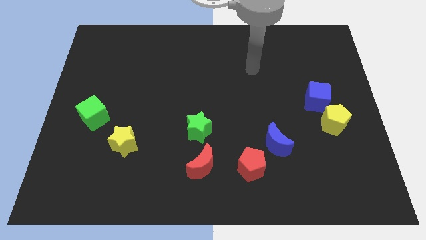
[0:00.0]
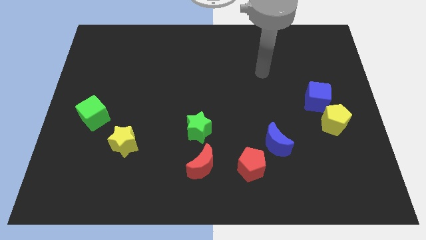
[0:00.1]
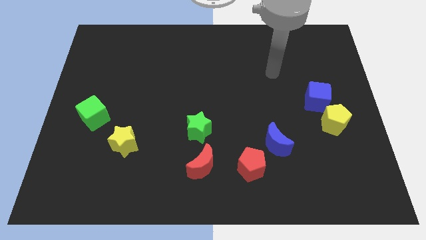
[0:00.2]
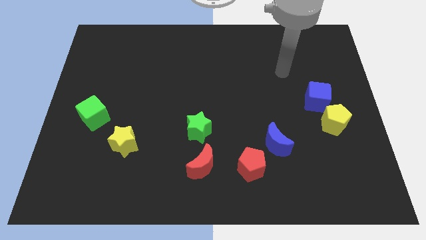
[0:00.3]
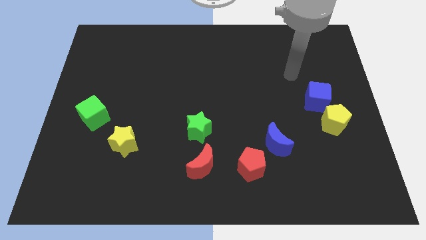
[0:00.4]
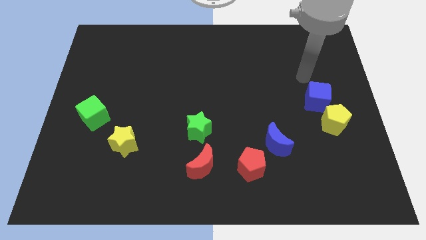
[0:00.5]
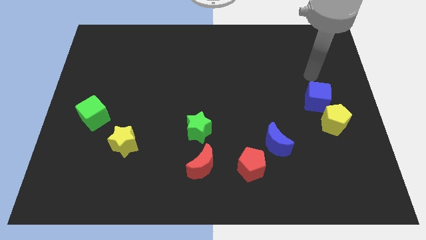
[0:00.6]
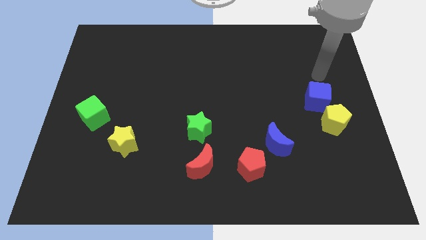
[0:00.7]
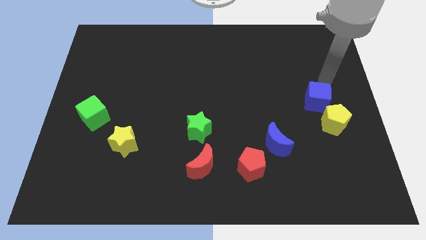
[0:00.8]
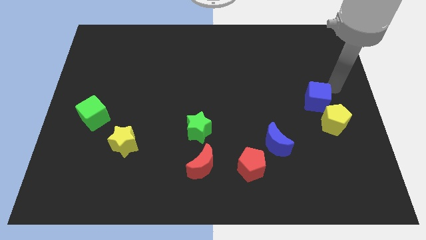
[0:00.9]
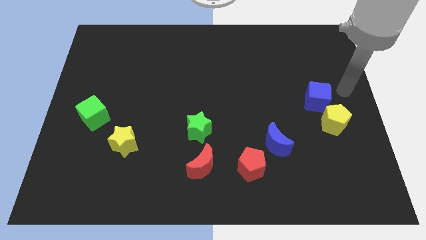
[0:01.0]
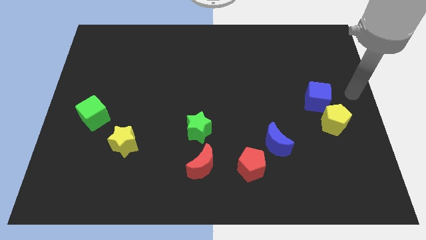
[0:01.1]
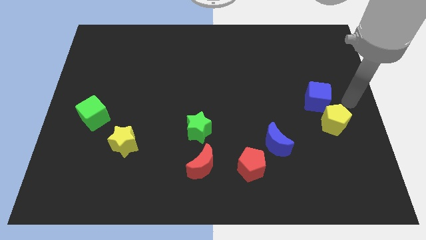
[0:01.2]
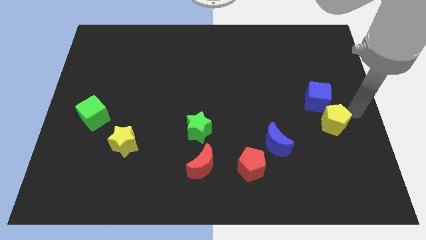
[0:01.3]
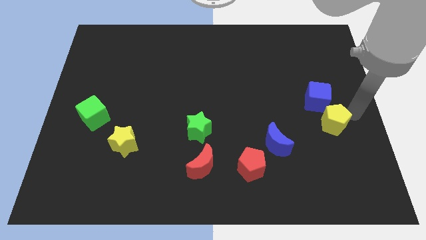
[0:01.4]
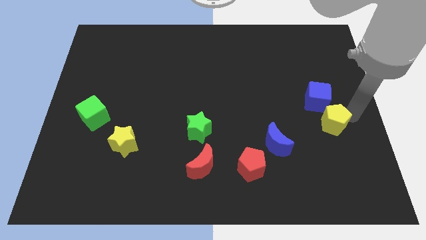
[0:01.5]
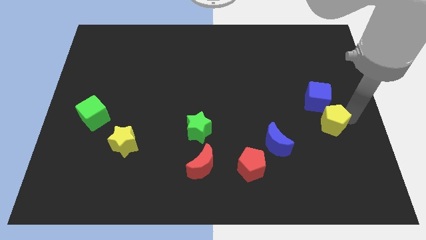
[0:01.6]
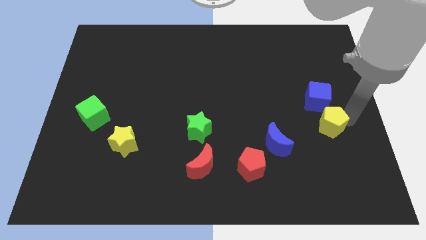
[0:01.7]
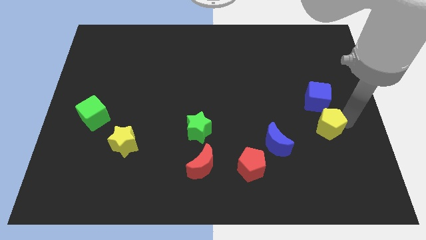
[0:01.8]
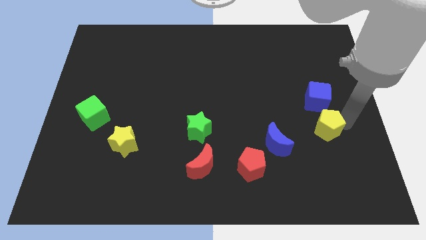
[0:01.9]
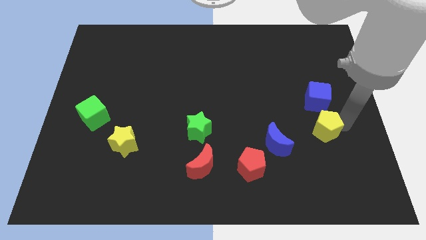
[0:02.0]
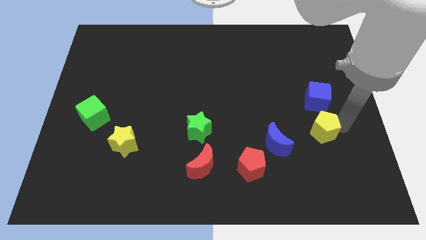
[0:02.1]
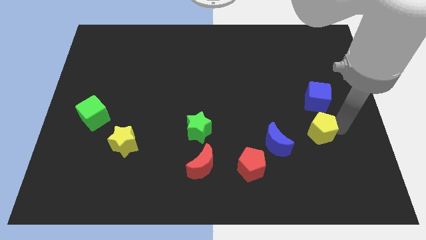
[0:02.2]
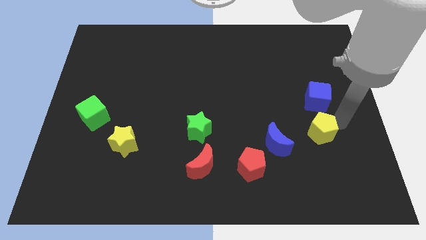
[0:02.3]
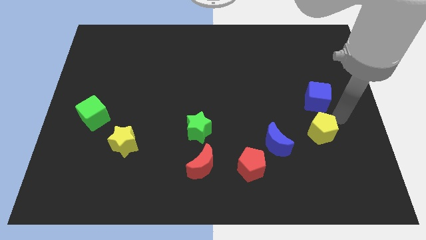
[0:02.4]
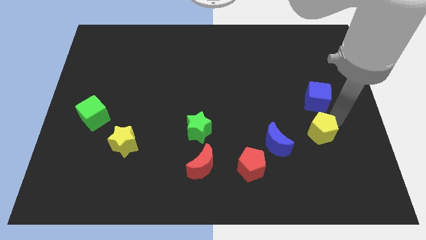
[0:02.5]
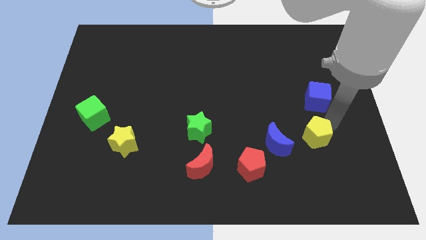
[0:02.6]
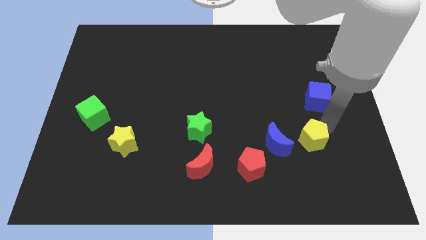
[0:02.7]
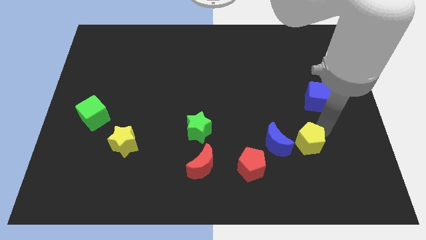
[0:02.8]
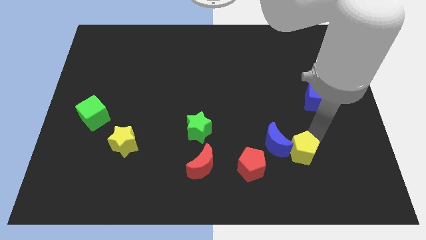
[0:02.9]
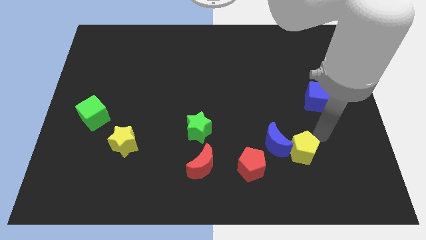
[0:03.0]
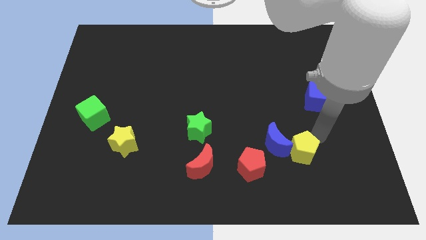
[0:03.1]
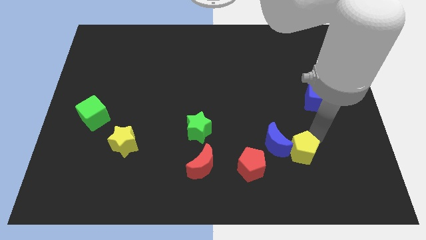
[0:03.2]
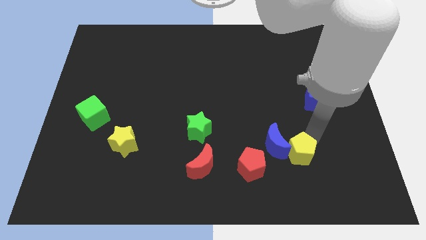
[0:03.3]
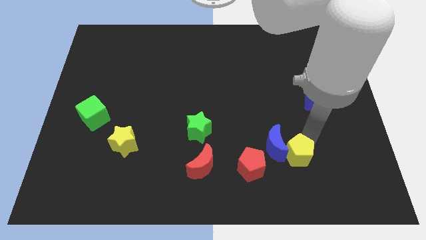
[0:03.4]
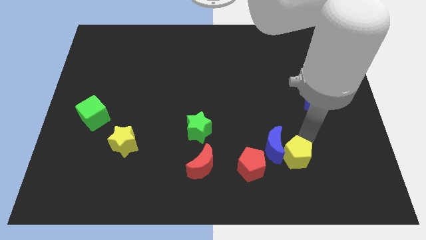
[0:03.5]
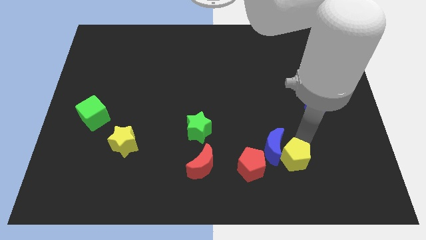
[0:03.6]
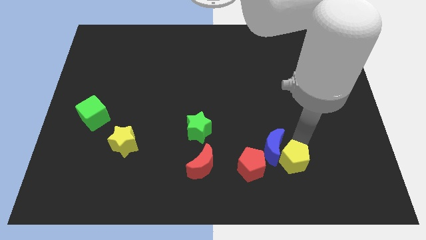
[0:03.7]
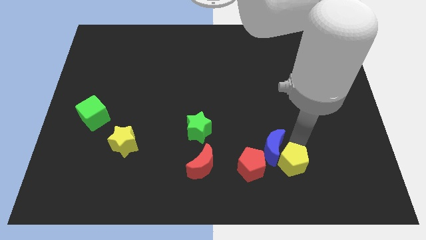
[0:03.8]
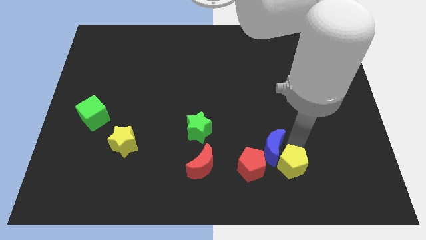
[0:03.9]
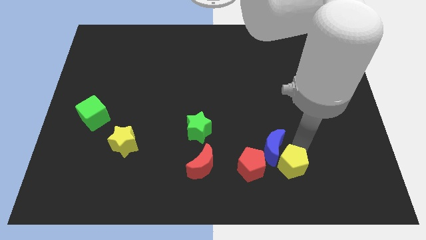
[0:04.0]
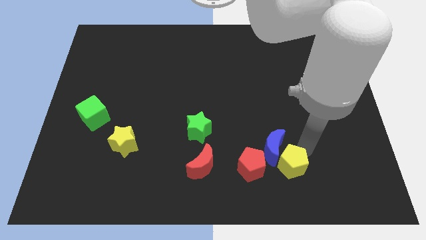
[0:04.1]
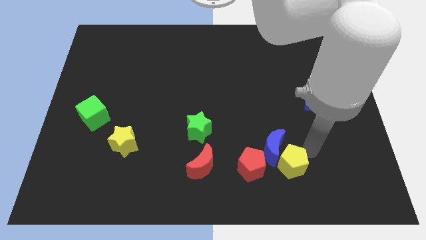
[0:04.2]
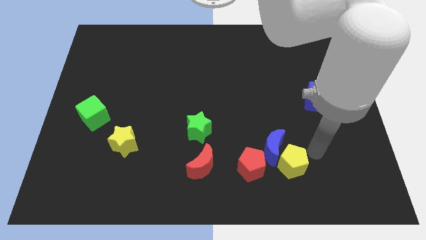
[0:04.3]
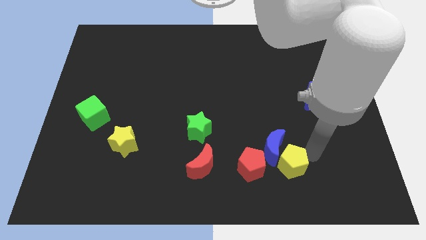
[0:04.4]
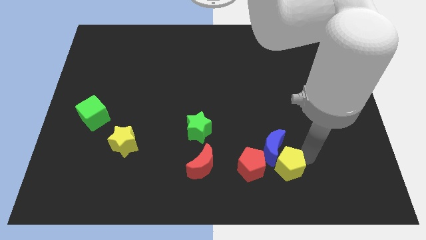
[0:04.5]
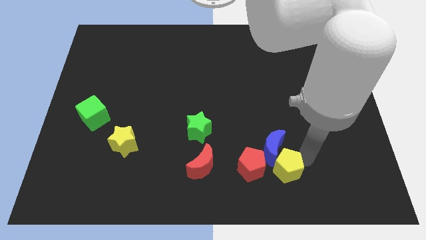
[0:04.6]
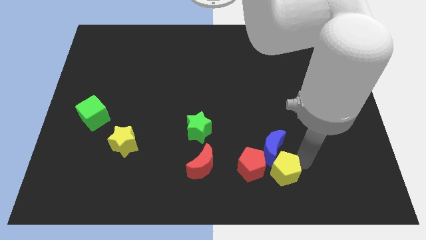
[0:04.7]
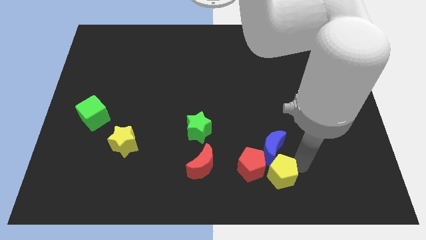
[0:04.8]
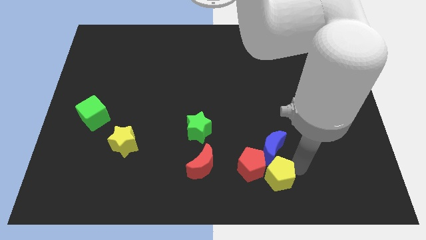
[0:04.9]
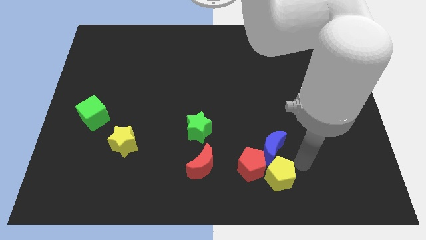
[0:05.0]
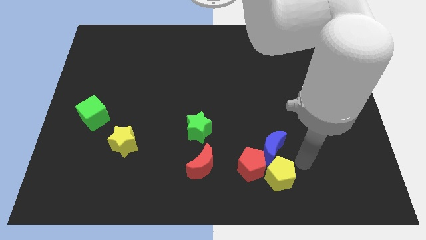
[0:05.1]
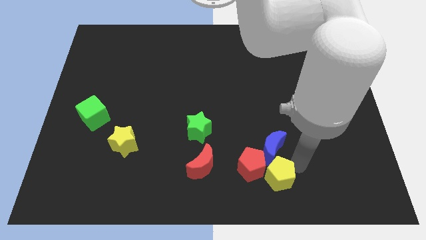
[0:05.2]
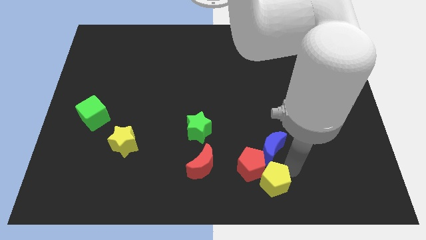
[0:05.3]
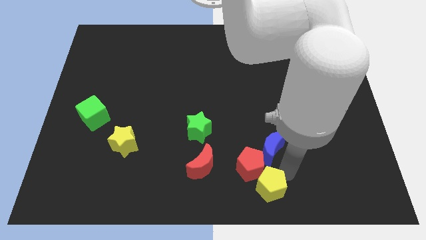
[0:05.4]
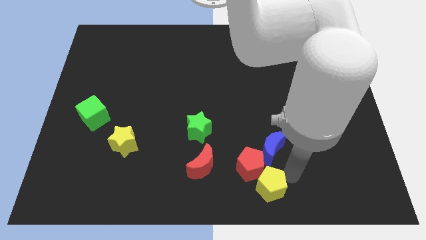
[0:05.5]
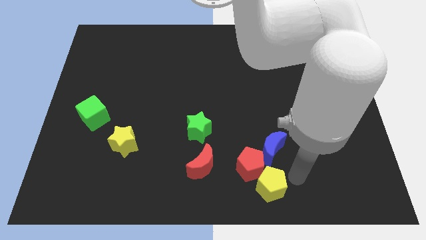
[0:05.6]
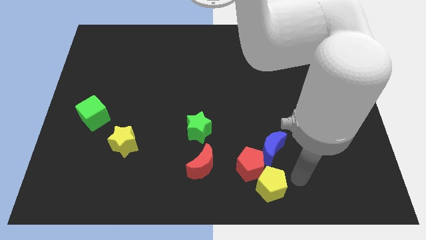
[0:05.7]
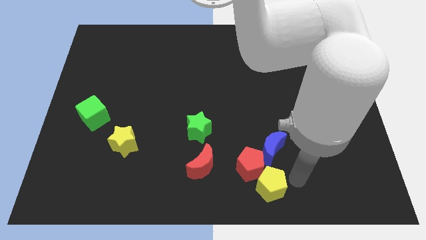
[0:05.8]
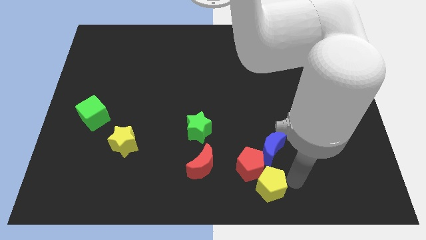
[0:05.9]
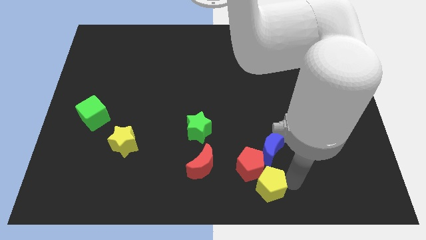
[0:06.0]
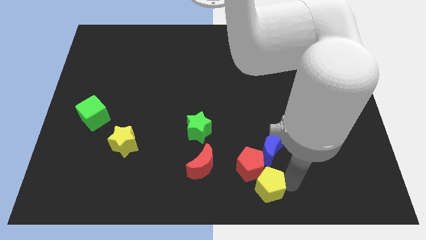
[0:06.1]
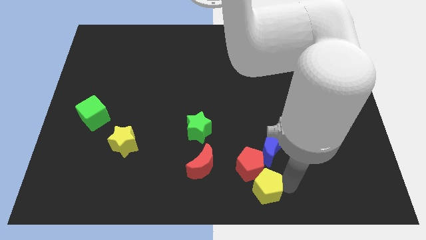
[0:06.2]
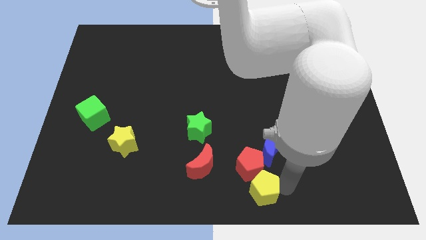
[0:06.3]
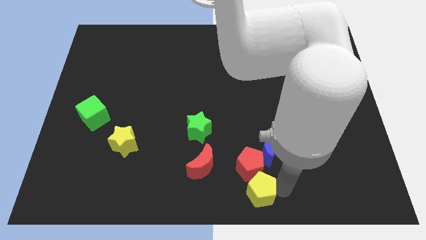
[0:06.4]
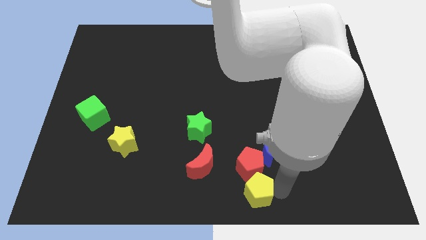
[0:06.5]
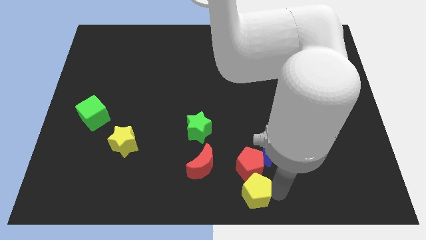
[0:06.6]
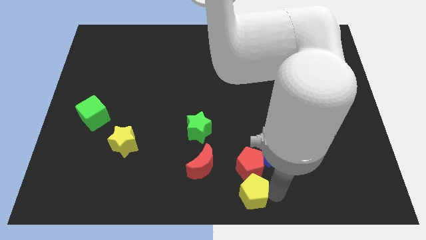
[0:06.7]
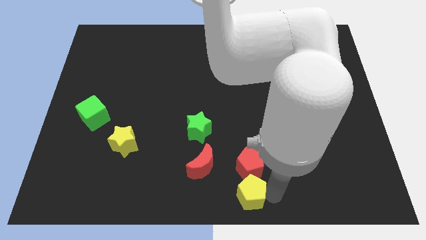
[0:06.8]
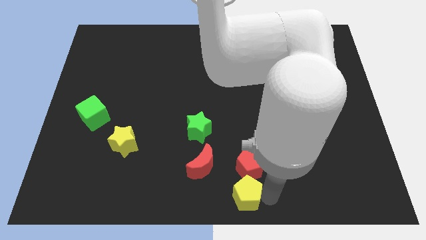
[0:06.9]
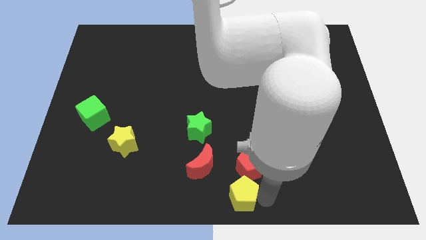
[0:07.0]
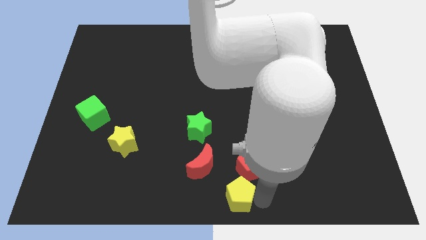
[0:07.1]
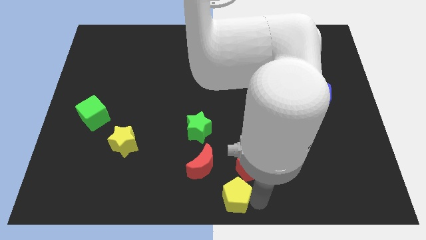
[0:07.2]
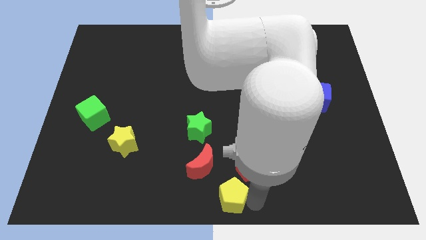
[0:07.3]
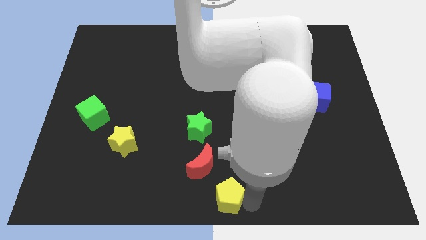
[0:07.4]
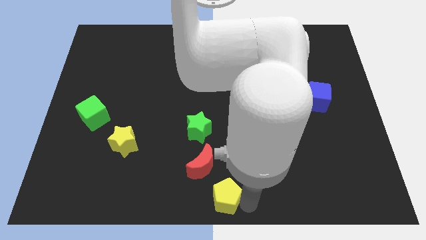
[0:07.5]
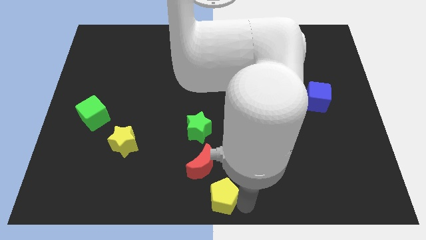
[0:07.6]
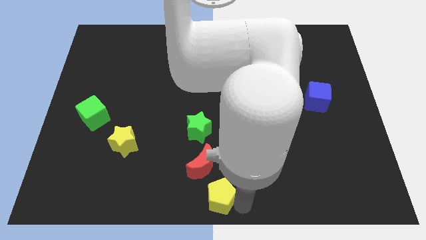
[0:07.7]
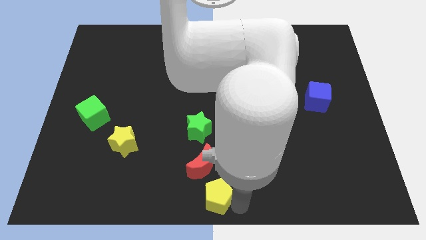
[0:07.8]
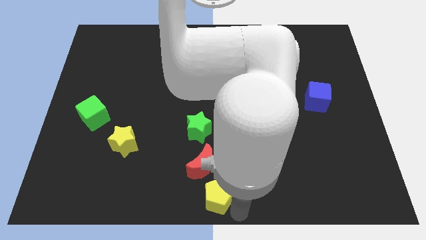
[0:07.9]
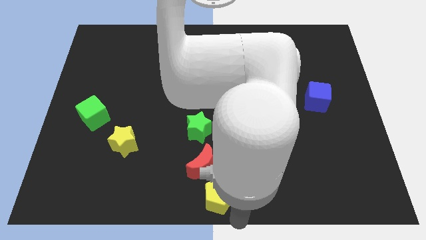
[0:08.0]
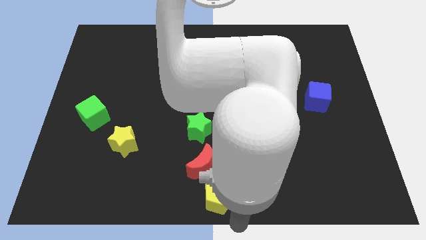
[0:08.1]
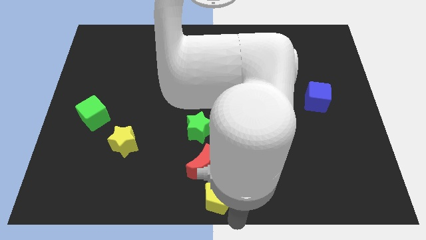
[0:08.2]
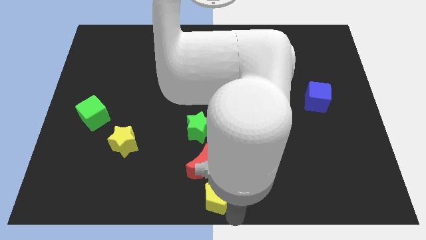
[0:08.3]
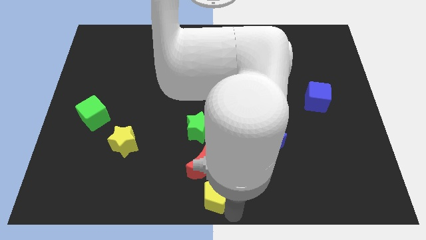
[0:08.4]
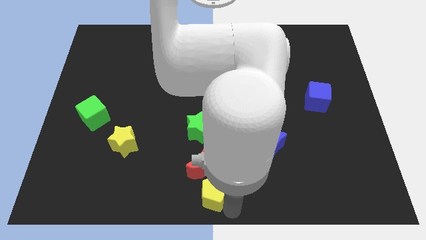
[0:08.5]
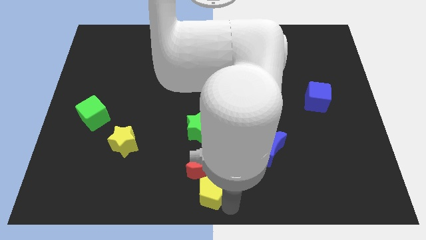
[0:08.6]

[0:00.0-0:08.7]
move the yellow pentagon to the bottom of the green star
